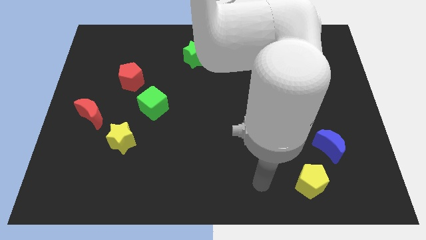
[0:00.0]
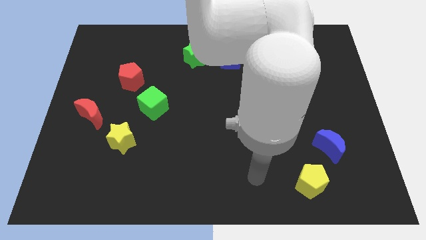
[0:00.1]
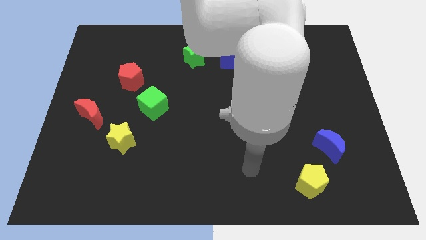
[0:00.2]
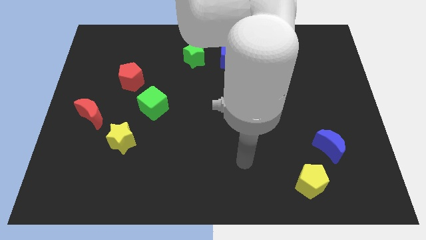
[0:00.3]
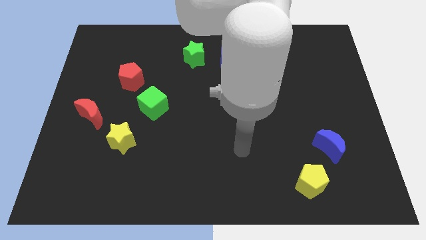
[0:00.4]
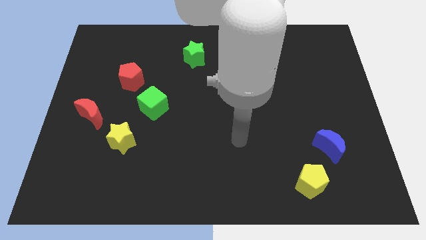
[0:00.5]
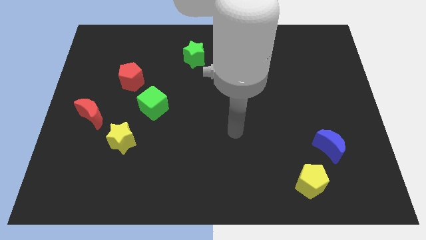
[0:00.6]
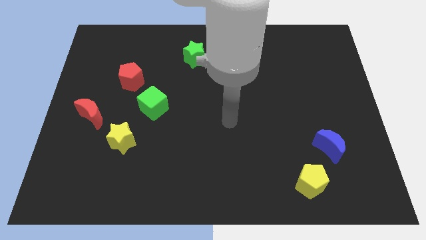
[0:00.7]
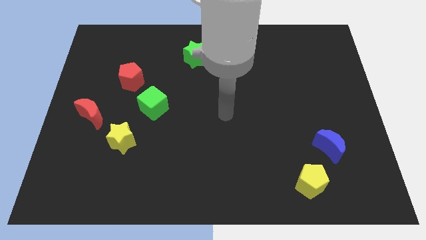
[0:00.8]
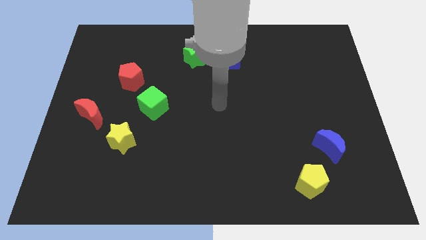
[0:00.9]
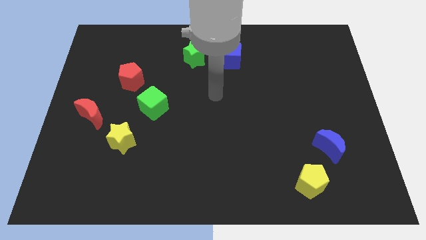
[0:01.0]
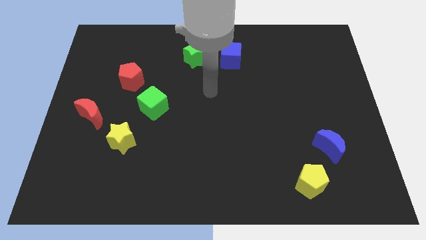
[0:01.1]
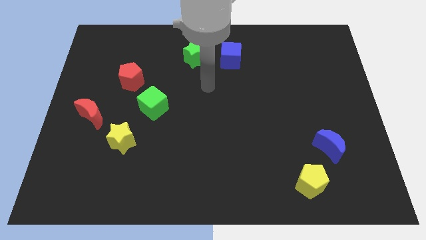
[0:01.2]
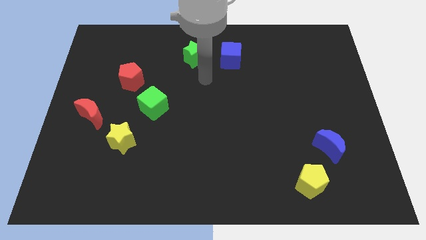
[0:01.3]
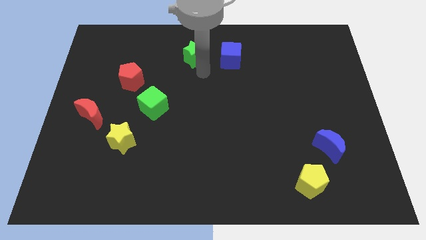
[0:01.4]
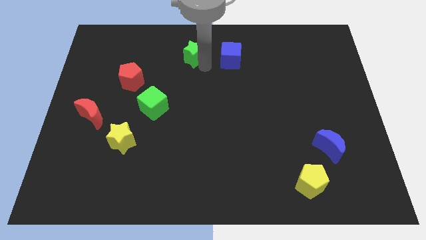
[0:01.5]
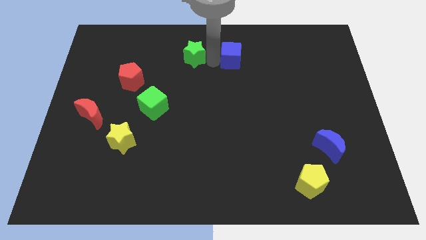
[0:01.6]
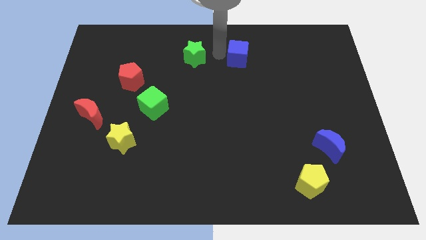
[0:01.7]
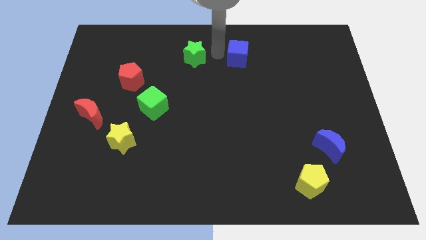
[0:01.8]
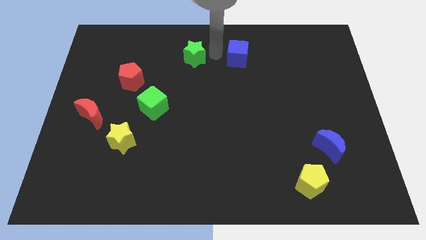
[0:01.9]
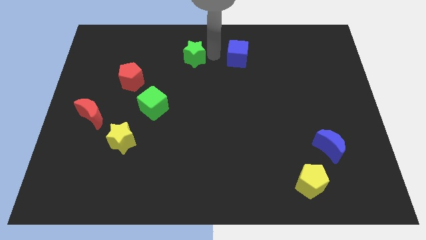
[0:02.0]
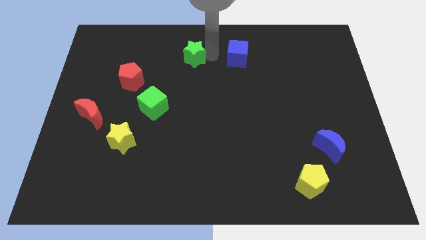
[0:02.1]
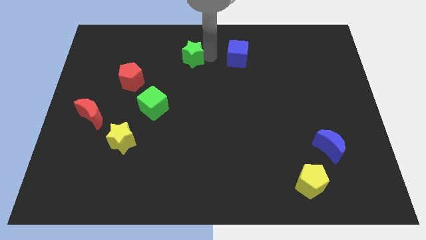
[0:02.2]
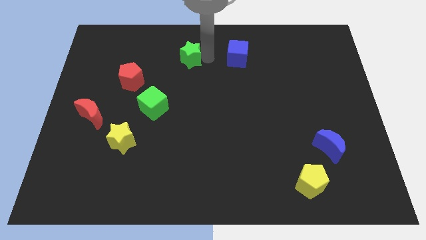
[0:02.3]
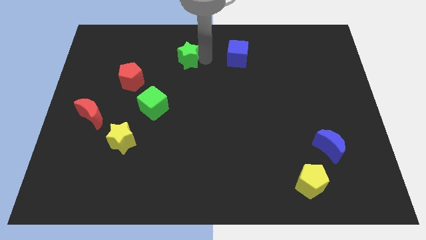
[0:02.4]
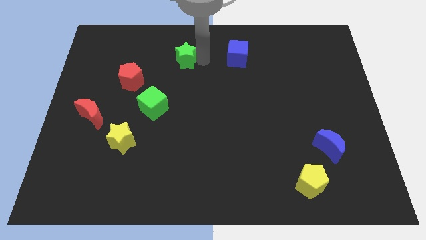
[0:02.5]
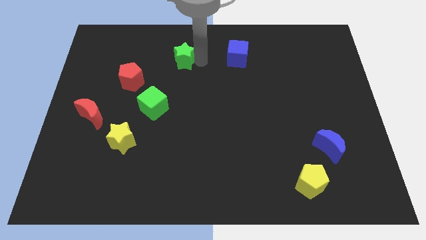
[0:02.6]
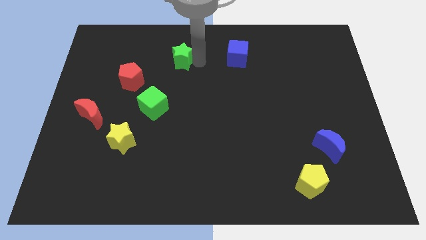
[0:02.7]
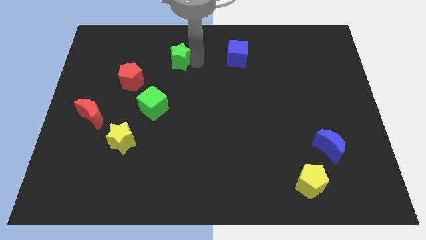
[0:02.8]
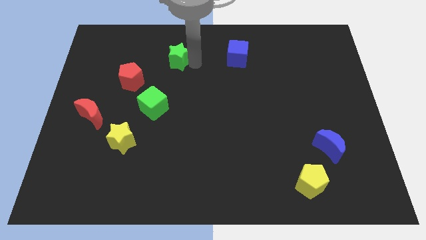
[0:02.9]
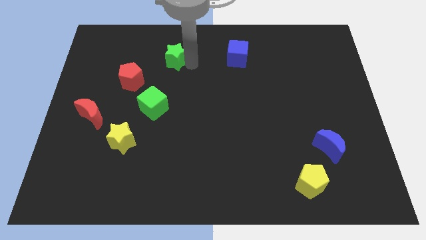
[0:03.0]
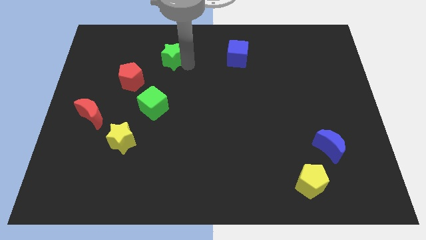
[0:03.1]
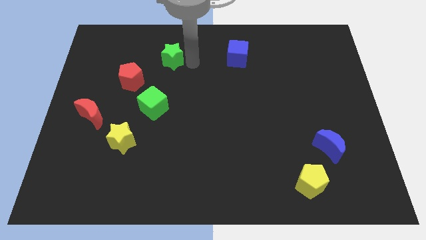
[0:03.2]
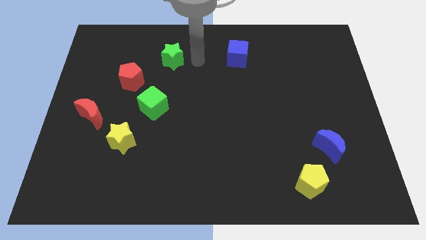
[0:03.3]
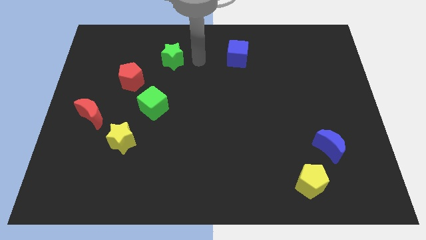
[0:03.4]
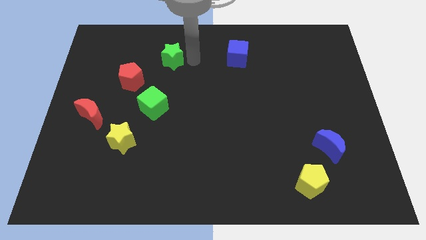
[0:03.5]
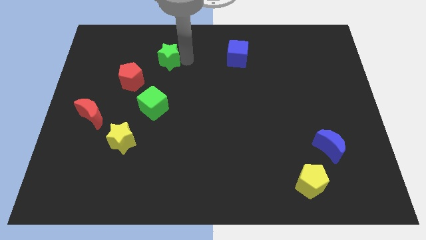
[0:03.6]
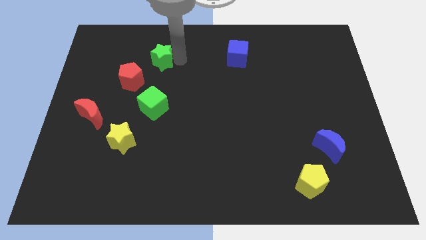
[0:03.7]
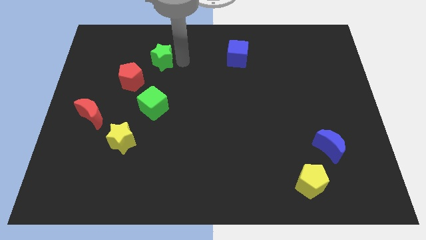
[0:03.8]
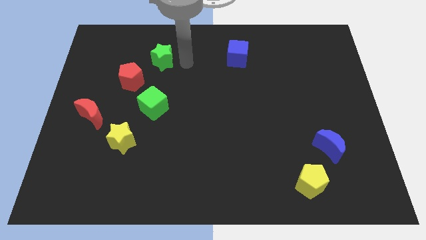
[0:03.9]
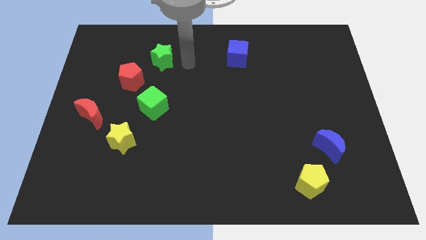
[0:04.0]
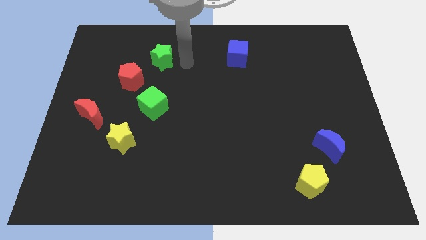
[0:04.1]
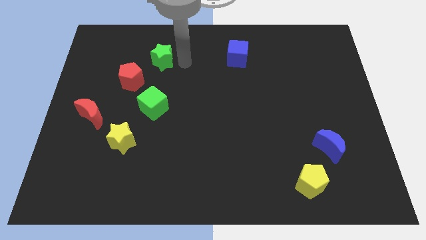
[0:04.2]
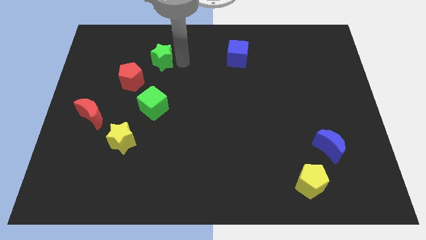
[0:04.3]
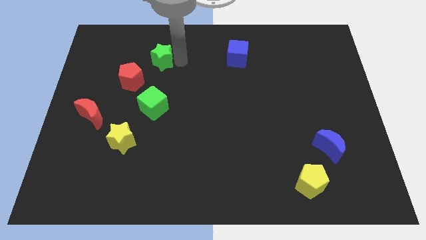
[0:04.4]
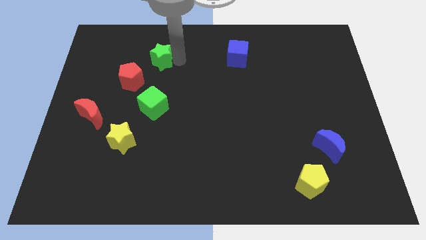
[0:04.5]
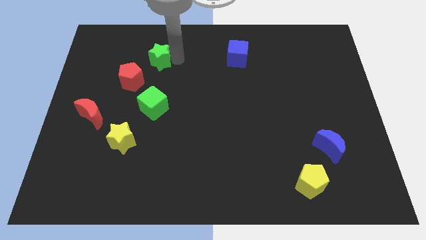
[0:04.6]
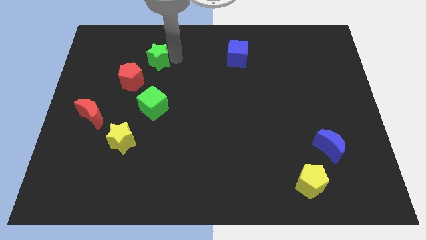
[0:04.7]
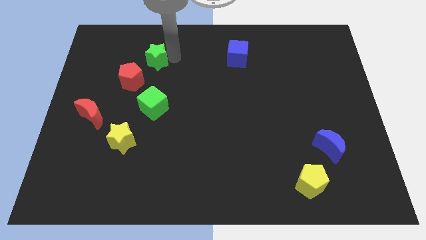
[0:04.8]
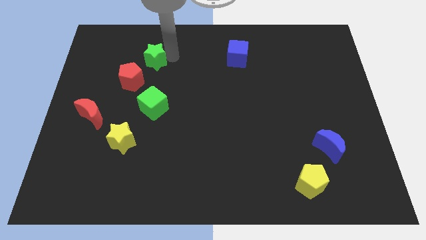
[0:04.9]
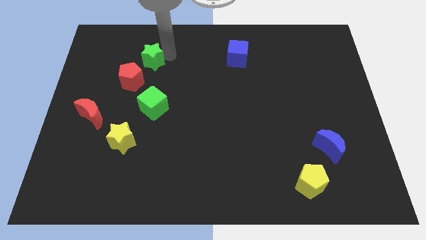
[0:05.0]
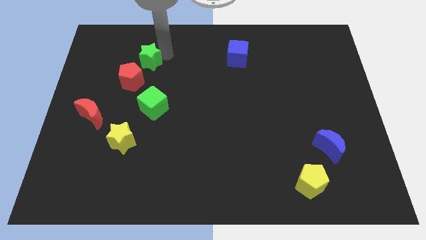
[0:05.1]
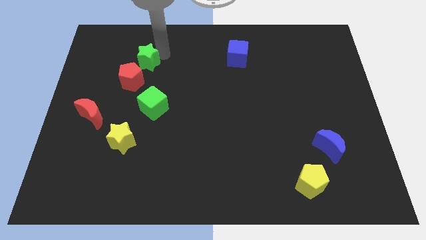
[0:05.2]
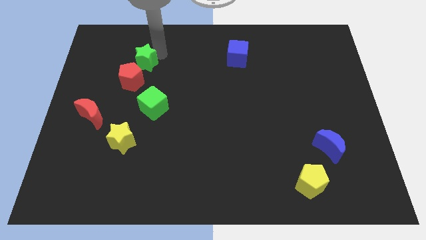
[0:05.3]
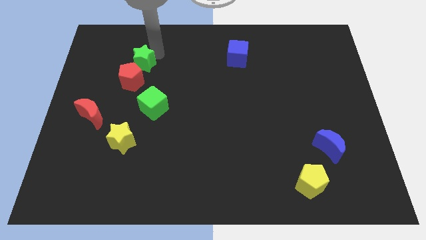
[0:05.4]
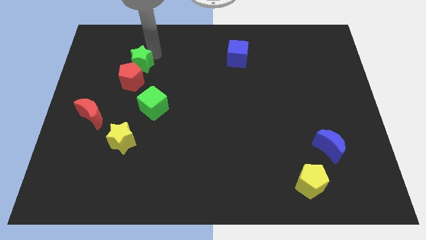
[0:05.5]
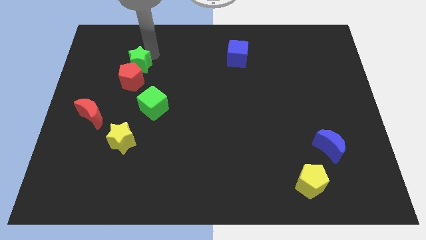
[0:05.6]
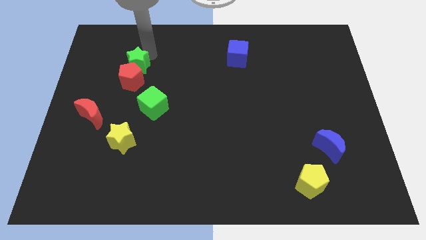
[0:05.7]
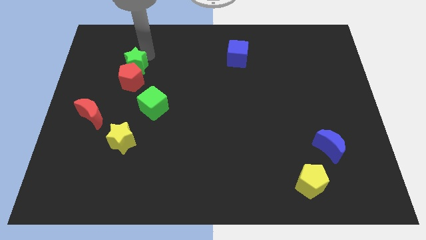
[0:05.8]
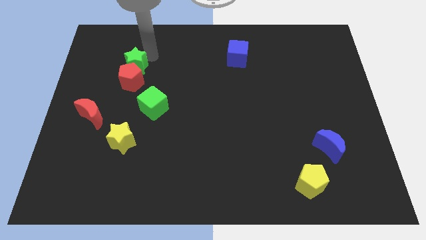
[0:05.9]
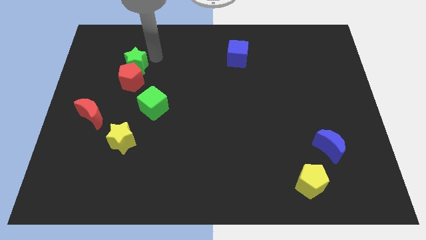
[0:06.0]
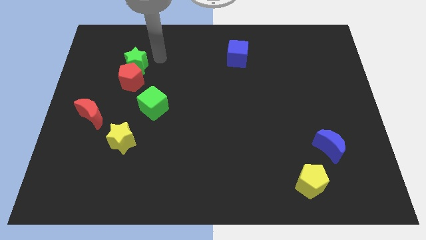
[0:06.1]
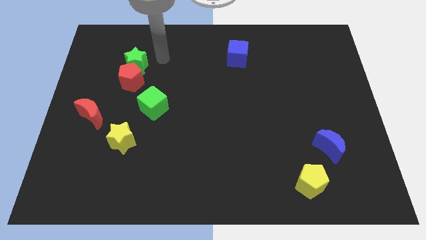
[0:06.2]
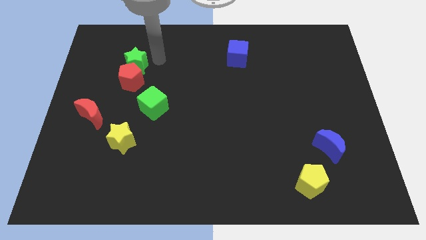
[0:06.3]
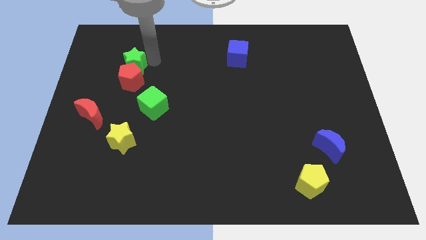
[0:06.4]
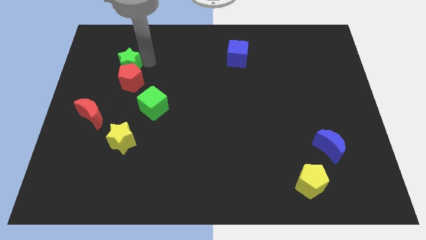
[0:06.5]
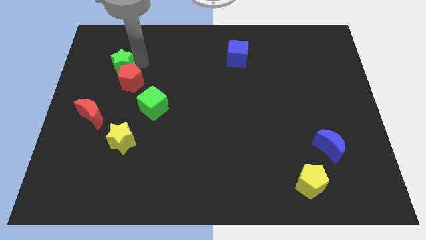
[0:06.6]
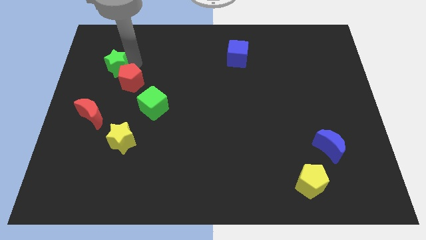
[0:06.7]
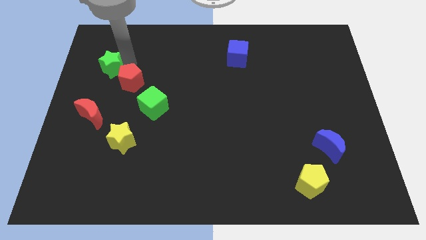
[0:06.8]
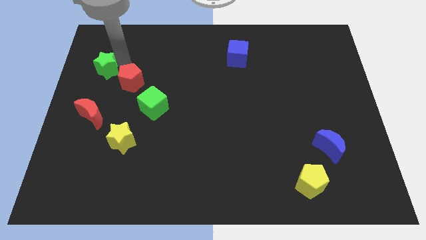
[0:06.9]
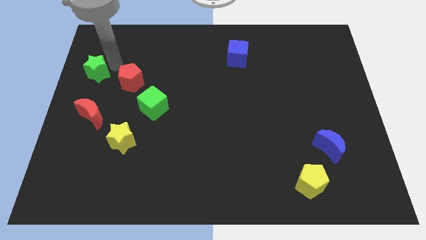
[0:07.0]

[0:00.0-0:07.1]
move the green star to the center left
